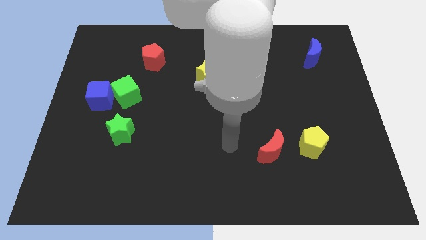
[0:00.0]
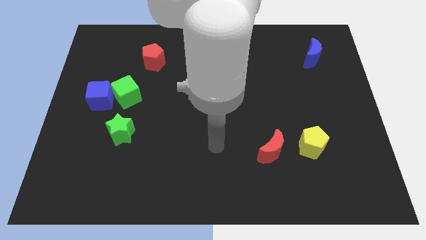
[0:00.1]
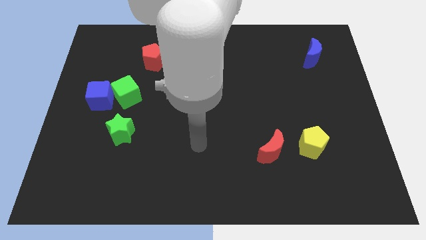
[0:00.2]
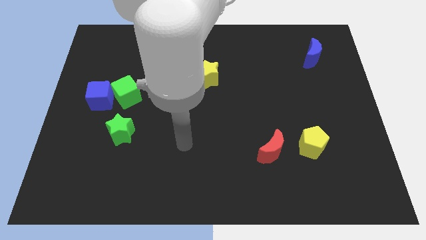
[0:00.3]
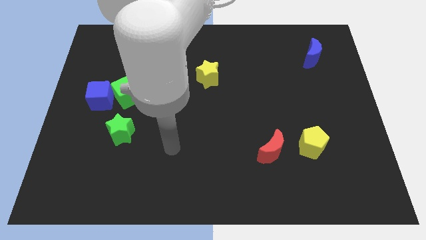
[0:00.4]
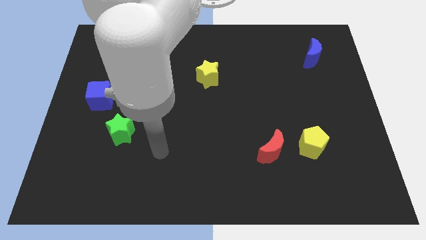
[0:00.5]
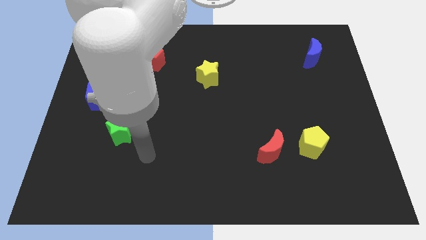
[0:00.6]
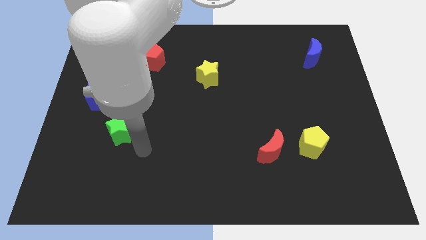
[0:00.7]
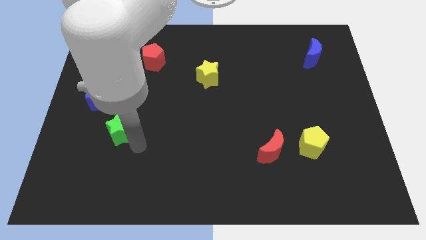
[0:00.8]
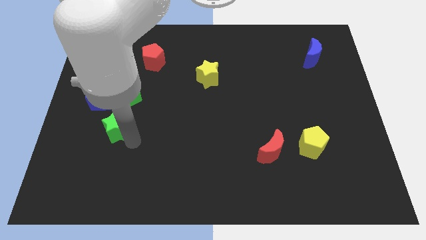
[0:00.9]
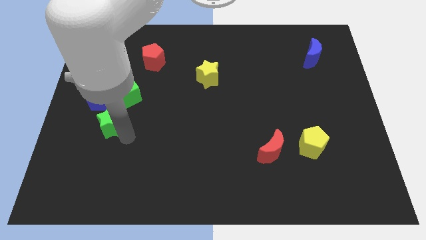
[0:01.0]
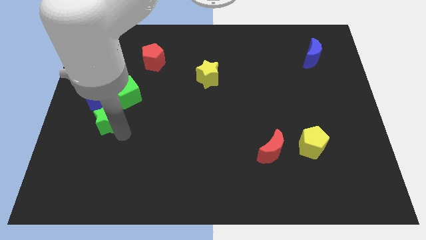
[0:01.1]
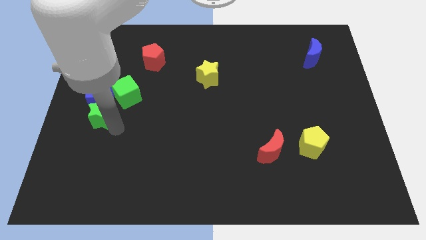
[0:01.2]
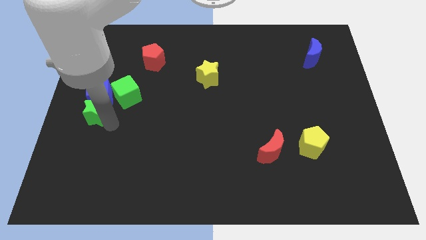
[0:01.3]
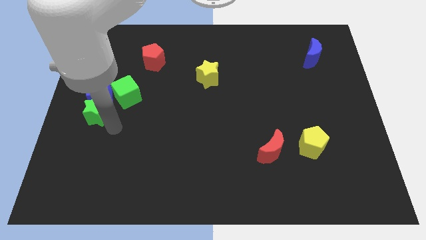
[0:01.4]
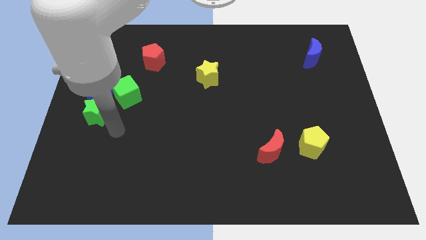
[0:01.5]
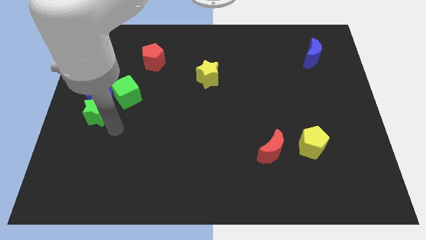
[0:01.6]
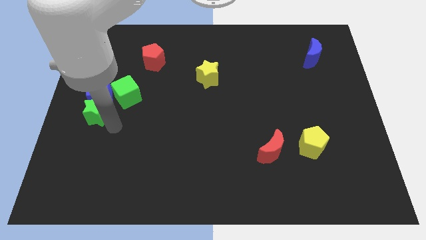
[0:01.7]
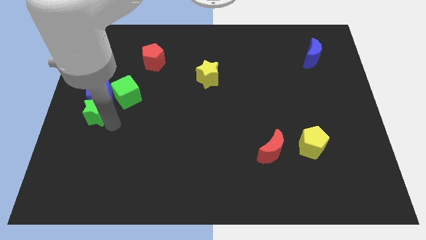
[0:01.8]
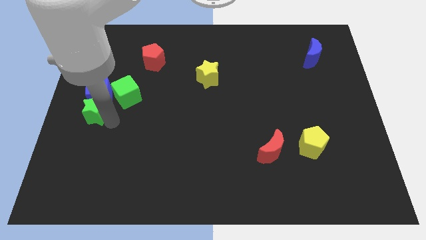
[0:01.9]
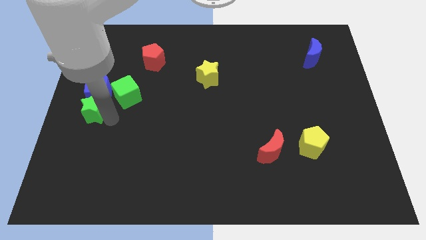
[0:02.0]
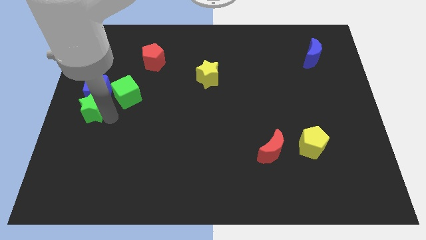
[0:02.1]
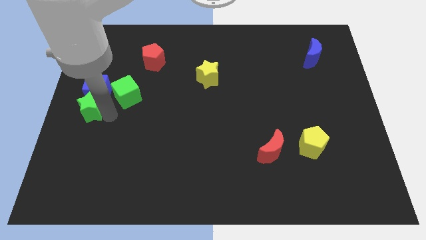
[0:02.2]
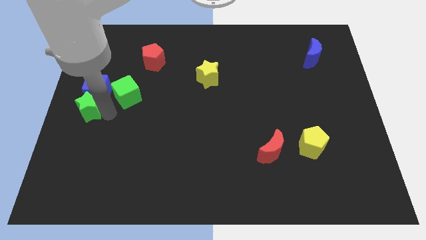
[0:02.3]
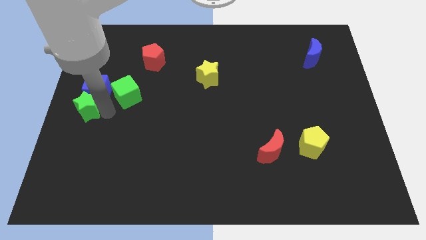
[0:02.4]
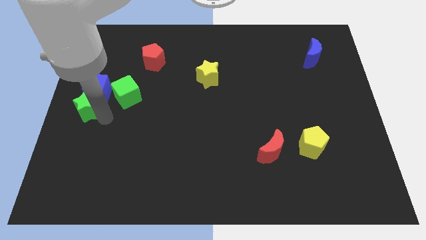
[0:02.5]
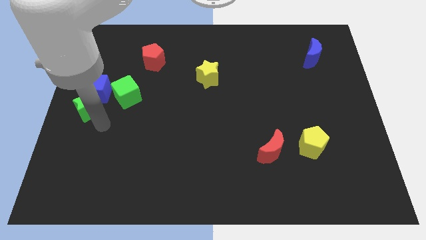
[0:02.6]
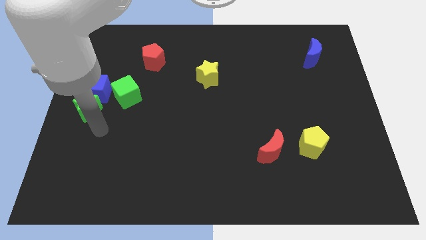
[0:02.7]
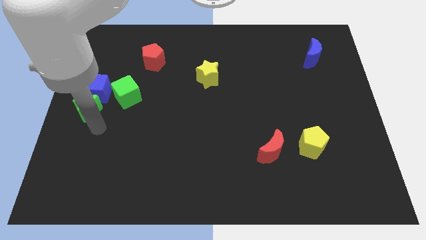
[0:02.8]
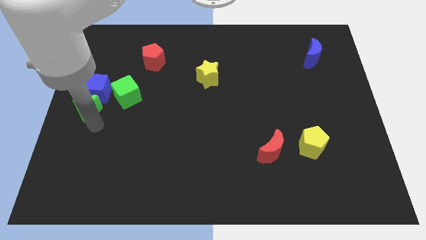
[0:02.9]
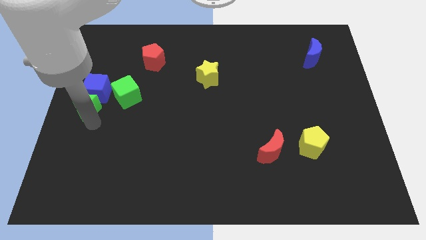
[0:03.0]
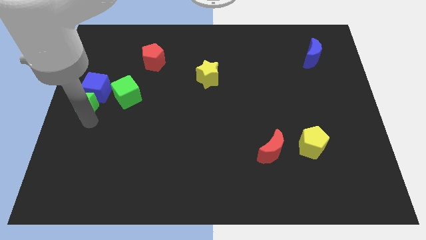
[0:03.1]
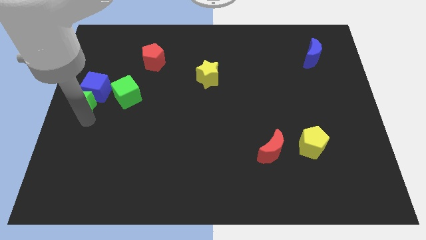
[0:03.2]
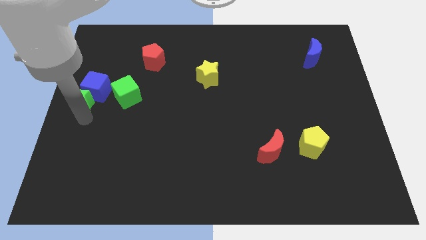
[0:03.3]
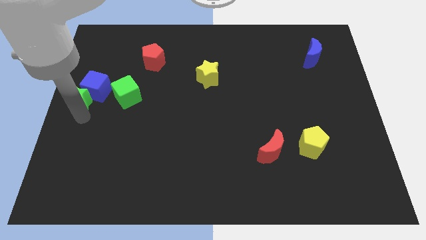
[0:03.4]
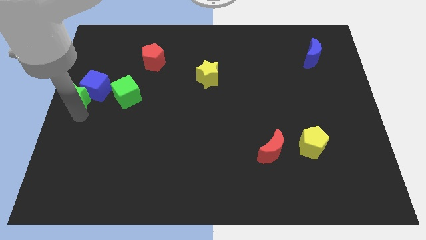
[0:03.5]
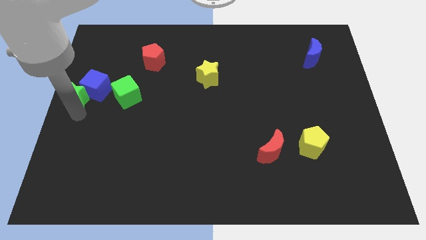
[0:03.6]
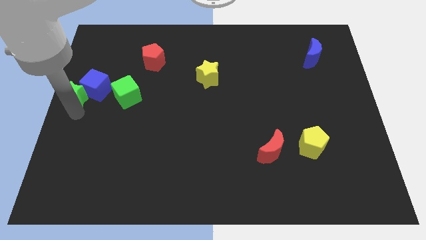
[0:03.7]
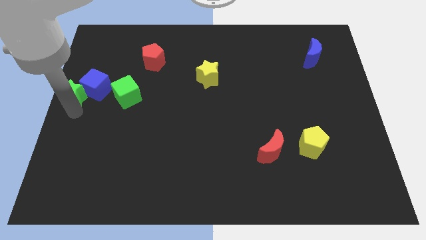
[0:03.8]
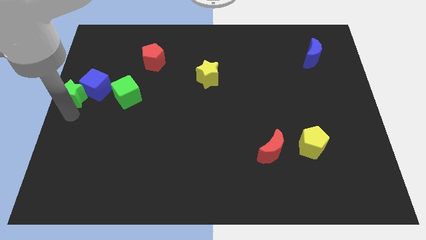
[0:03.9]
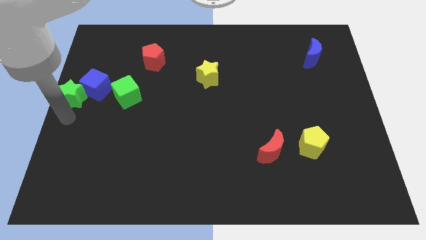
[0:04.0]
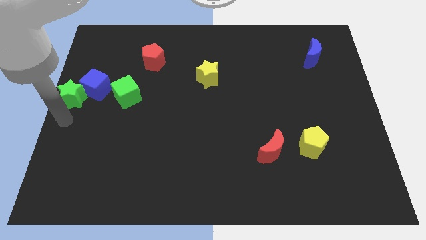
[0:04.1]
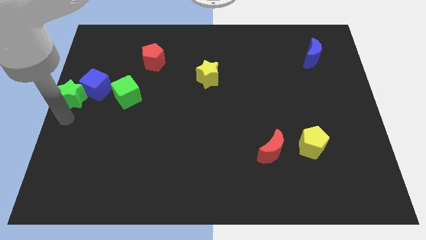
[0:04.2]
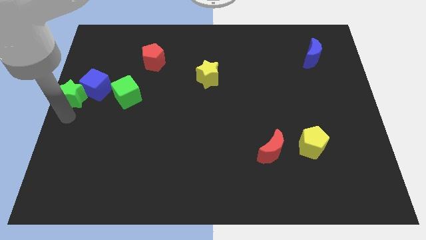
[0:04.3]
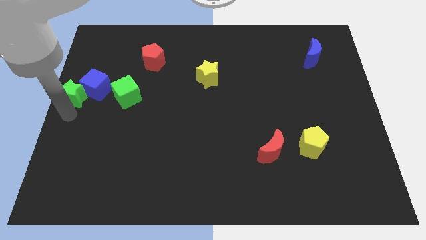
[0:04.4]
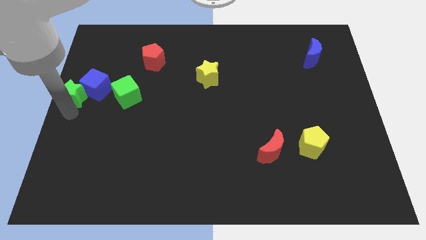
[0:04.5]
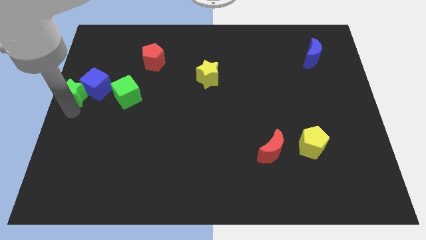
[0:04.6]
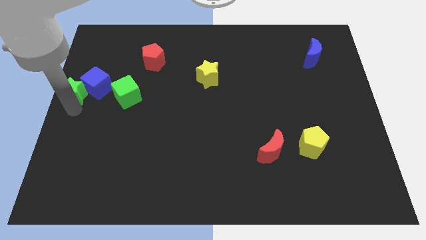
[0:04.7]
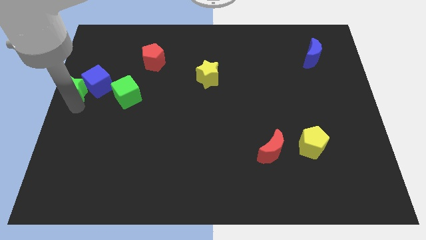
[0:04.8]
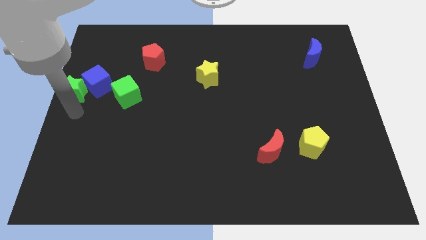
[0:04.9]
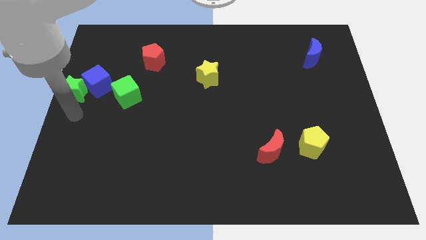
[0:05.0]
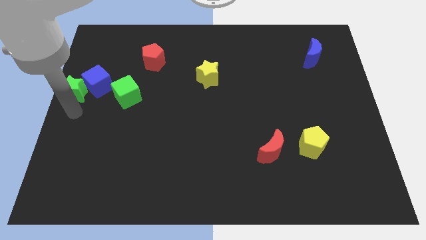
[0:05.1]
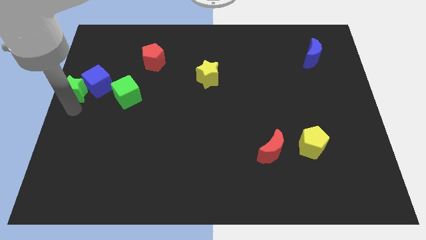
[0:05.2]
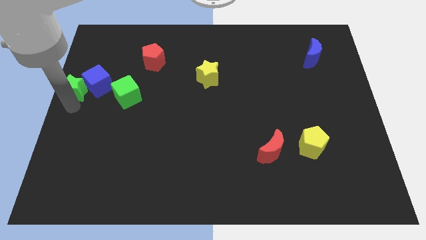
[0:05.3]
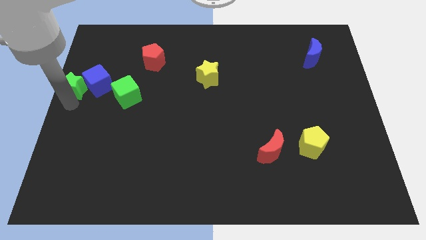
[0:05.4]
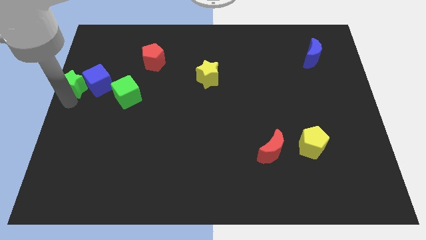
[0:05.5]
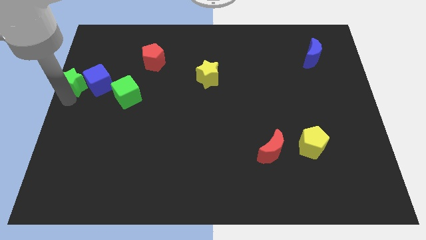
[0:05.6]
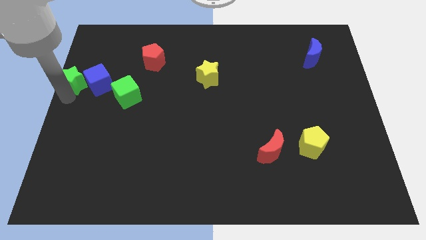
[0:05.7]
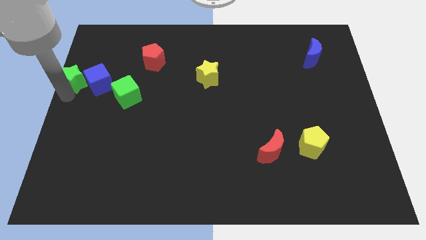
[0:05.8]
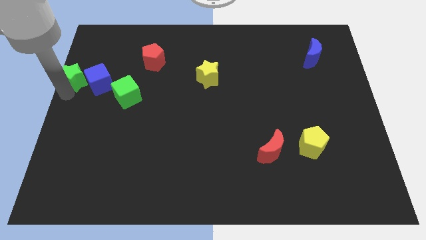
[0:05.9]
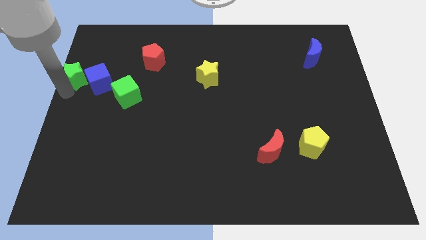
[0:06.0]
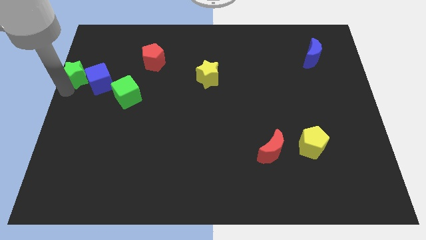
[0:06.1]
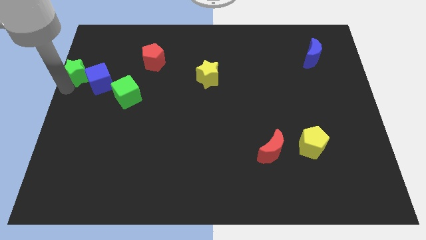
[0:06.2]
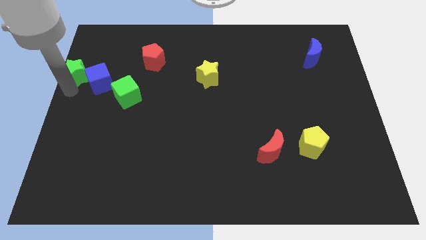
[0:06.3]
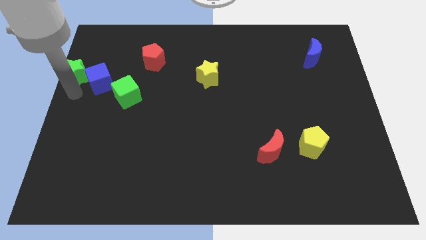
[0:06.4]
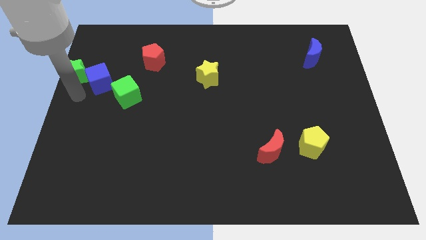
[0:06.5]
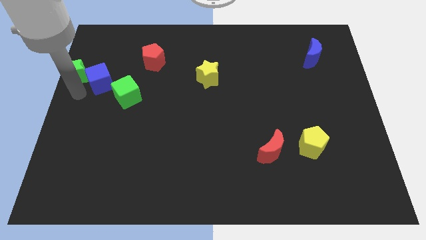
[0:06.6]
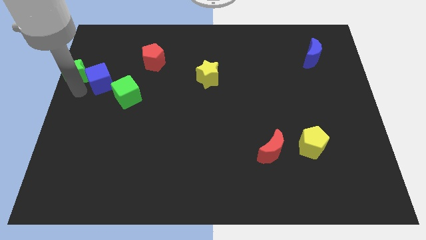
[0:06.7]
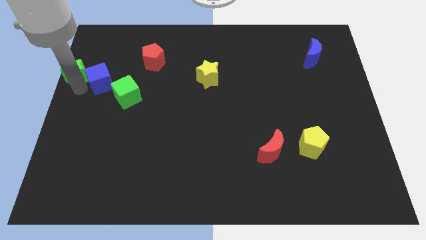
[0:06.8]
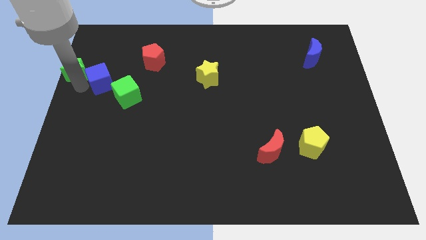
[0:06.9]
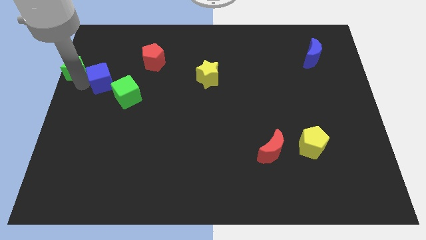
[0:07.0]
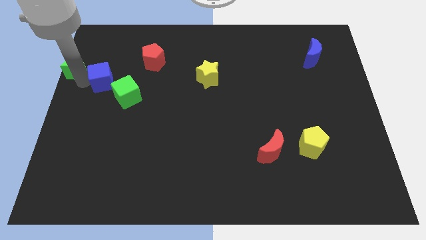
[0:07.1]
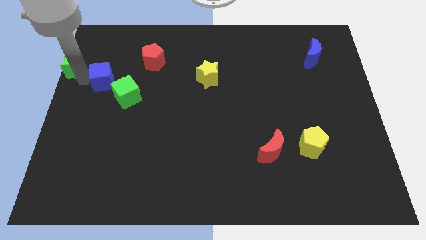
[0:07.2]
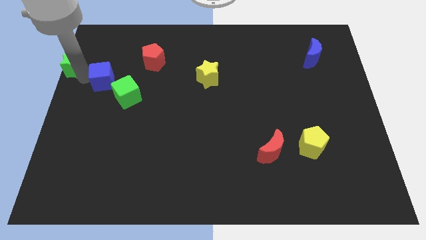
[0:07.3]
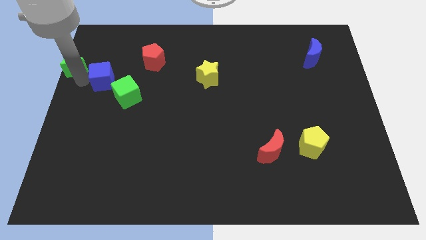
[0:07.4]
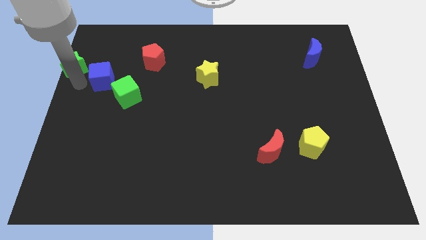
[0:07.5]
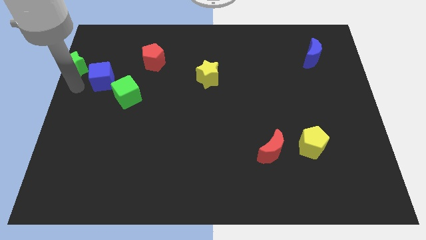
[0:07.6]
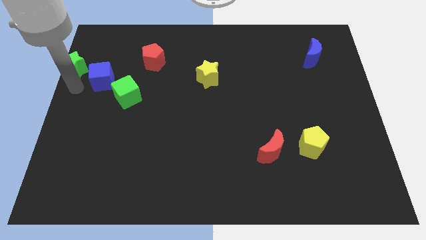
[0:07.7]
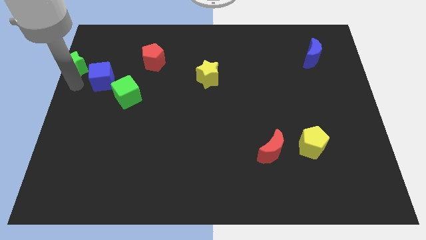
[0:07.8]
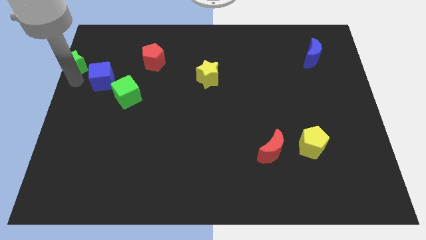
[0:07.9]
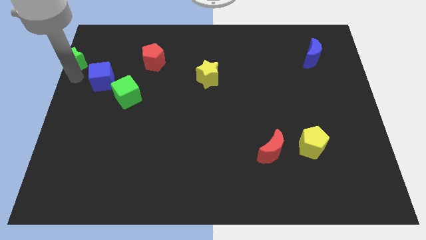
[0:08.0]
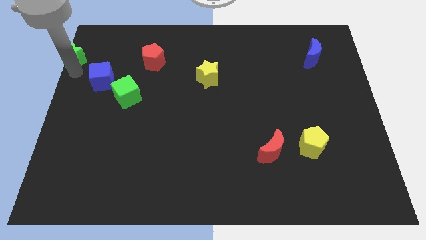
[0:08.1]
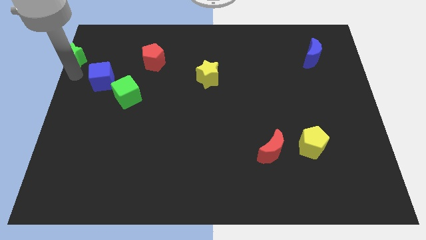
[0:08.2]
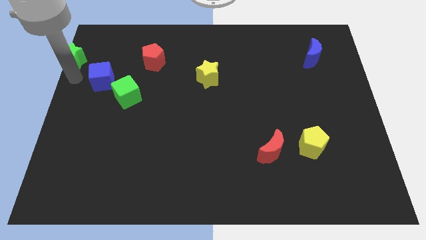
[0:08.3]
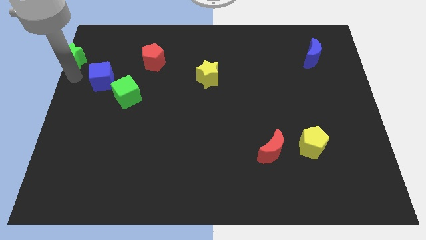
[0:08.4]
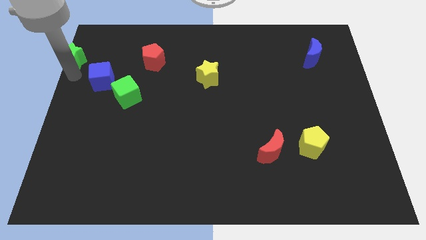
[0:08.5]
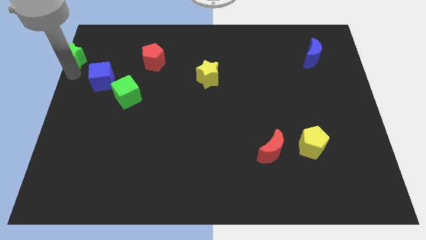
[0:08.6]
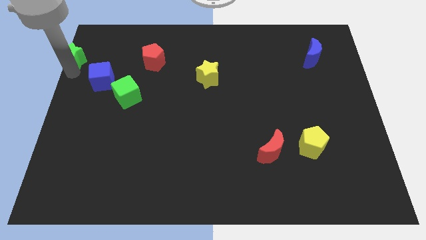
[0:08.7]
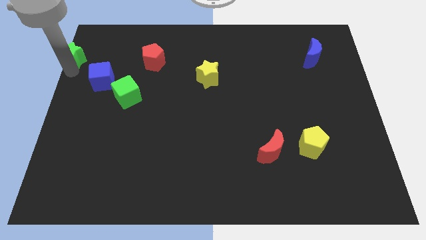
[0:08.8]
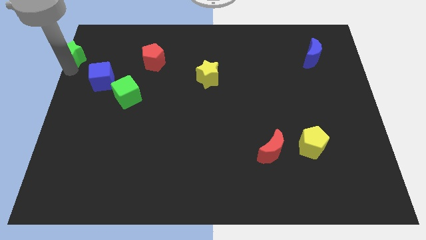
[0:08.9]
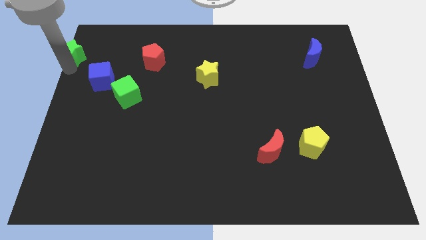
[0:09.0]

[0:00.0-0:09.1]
put the green star to the top left corner
